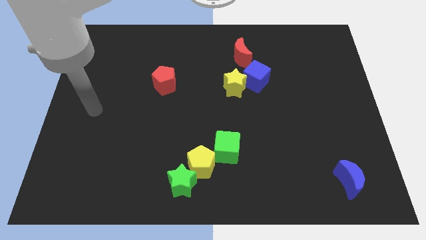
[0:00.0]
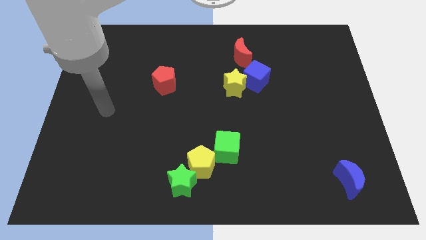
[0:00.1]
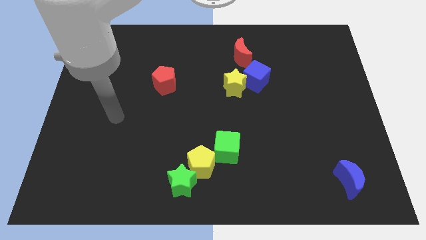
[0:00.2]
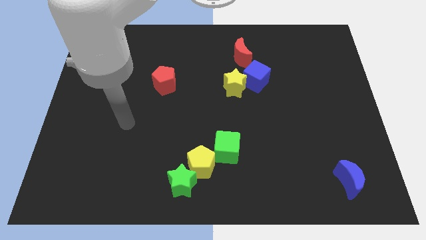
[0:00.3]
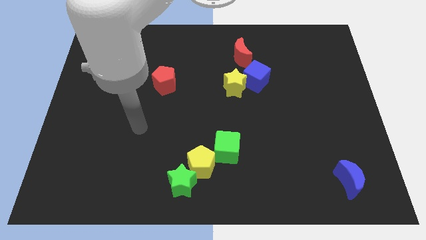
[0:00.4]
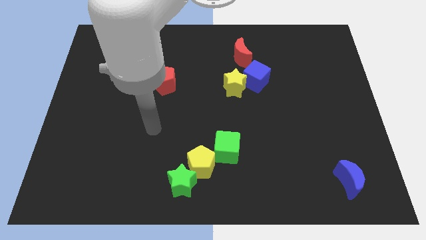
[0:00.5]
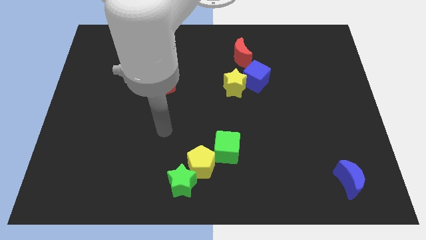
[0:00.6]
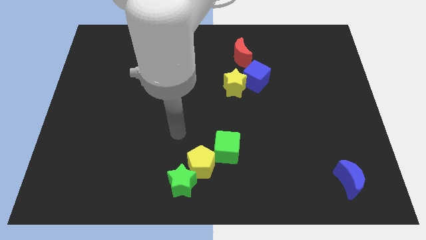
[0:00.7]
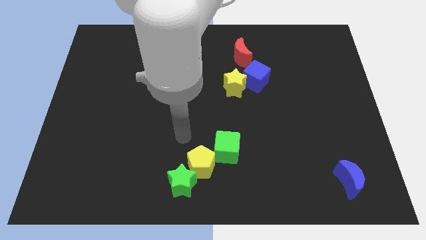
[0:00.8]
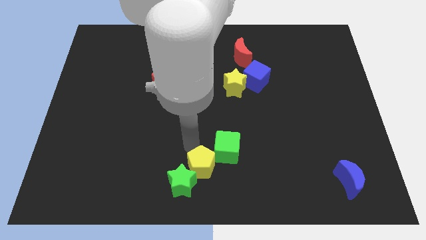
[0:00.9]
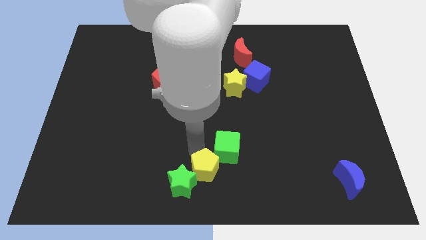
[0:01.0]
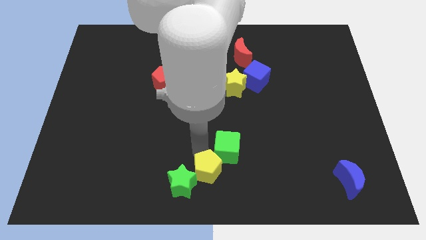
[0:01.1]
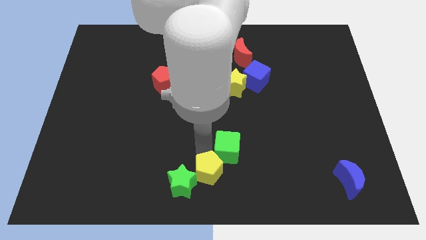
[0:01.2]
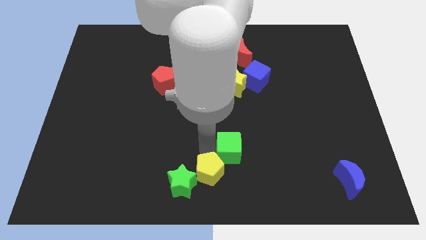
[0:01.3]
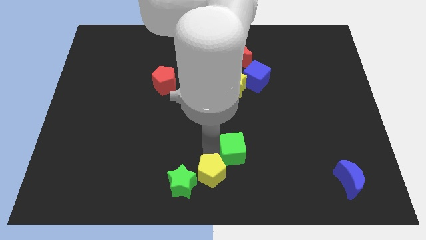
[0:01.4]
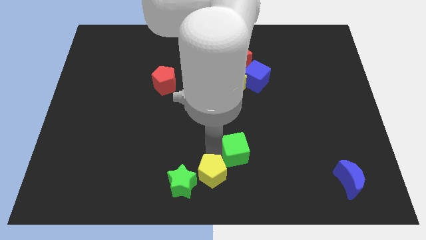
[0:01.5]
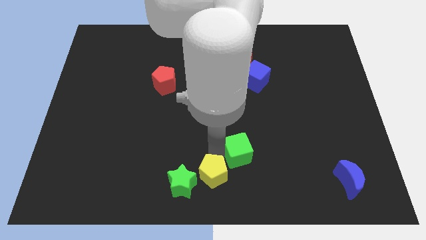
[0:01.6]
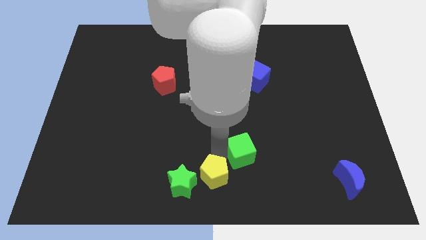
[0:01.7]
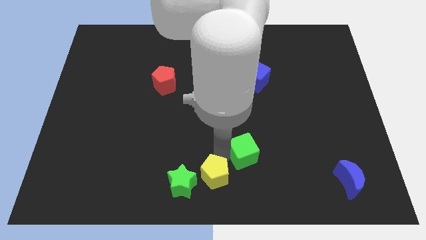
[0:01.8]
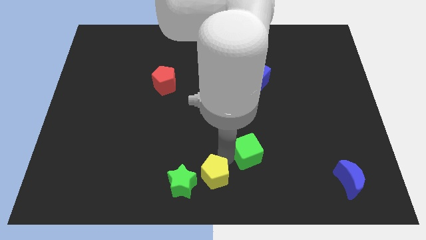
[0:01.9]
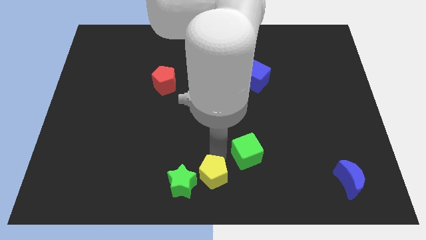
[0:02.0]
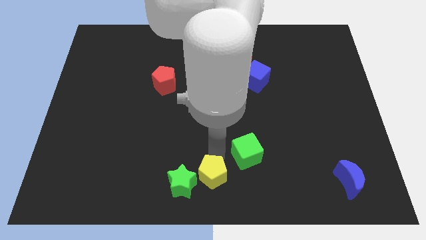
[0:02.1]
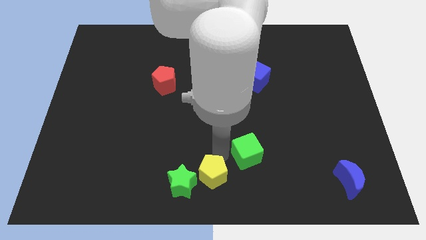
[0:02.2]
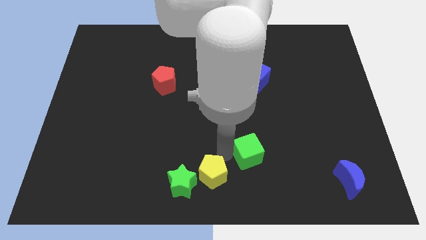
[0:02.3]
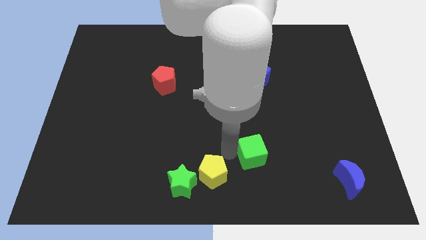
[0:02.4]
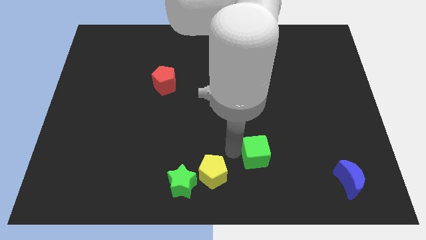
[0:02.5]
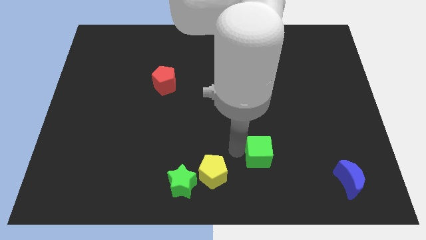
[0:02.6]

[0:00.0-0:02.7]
slightly slide the green cube to the right

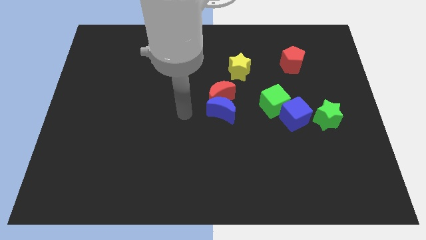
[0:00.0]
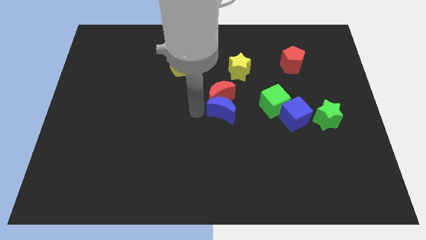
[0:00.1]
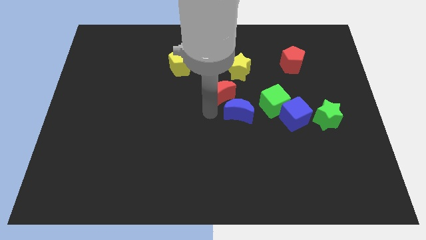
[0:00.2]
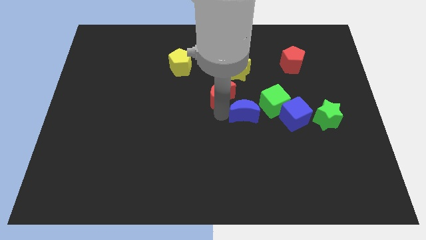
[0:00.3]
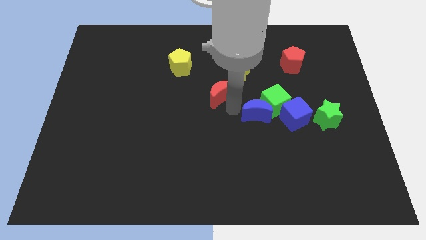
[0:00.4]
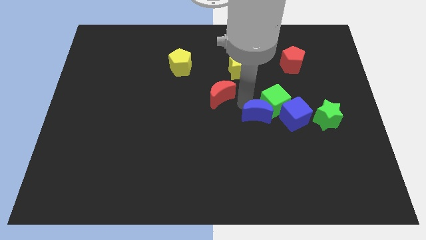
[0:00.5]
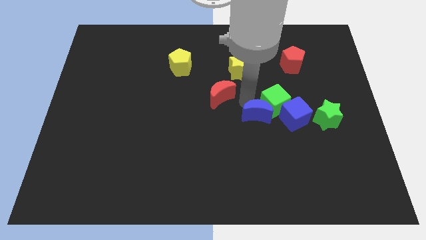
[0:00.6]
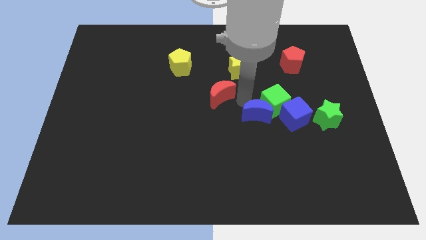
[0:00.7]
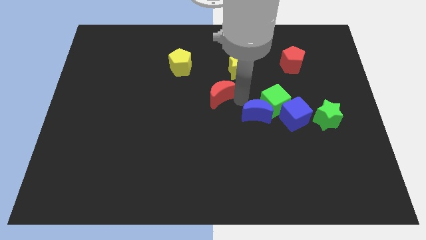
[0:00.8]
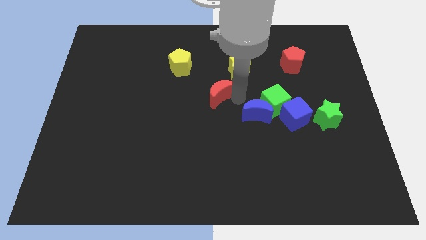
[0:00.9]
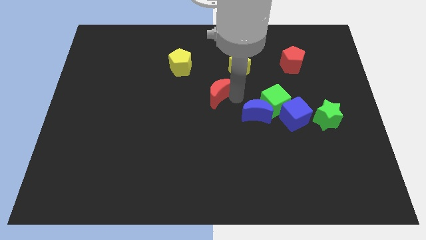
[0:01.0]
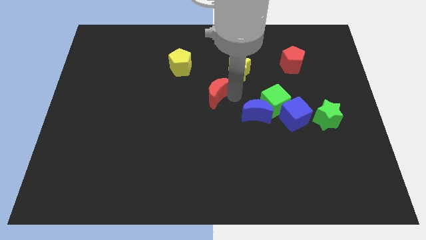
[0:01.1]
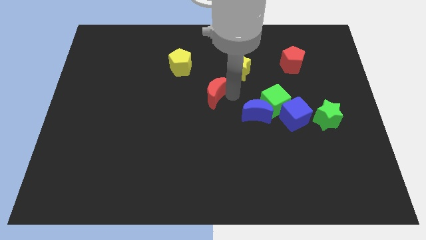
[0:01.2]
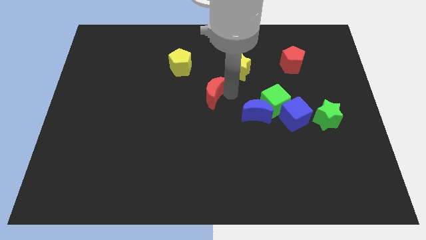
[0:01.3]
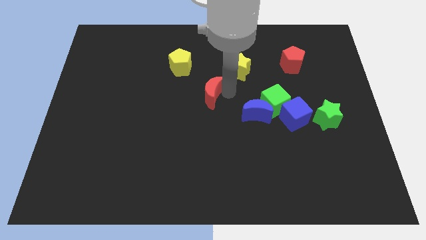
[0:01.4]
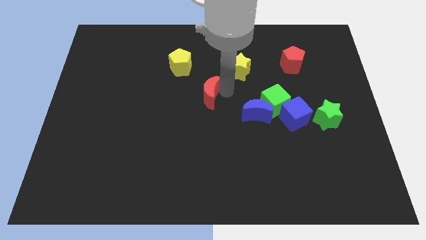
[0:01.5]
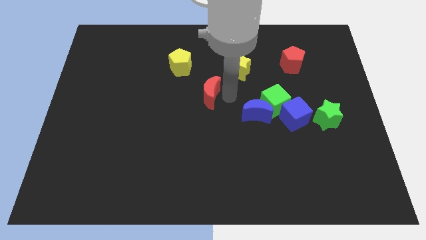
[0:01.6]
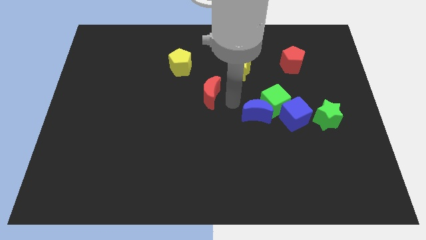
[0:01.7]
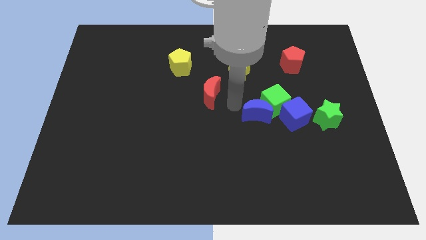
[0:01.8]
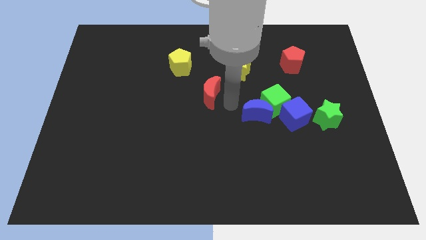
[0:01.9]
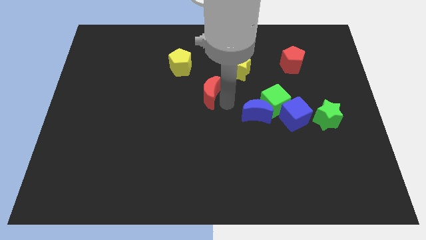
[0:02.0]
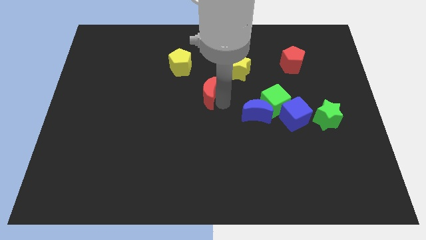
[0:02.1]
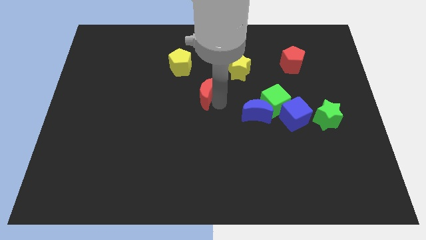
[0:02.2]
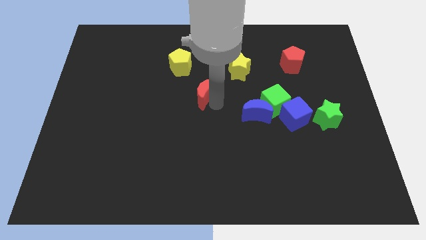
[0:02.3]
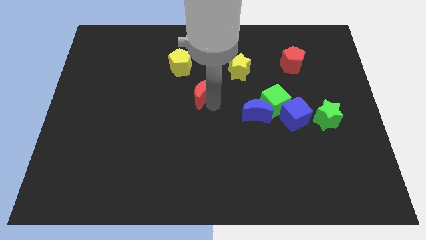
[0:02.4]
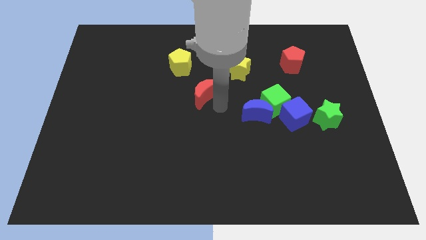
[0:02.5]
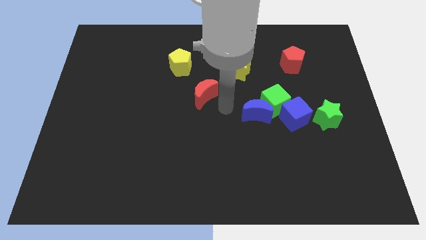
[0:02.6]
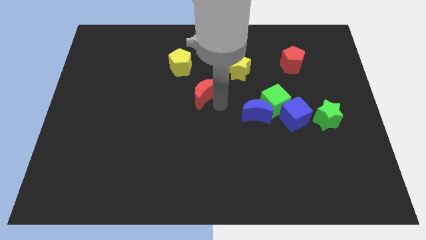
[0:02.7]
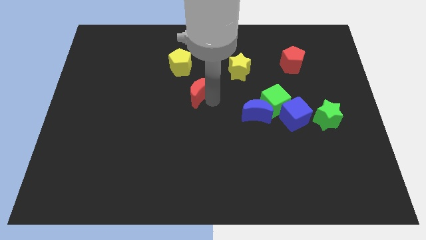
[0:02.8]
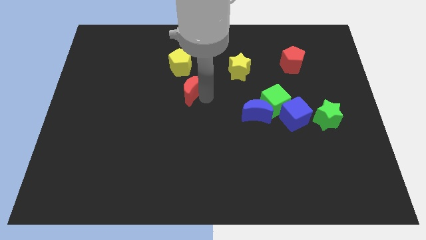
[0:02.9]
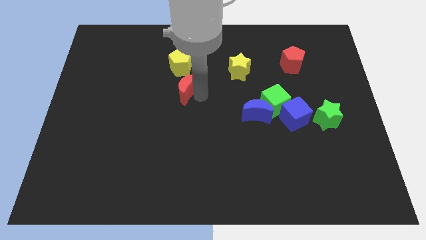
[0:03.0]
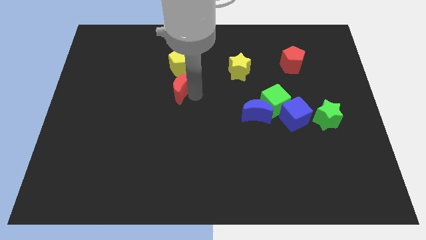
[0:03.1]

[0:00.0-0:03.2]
push the red moon upwards and then to the left a little

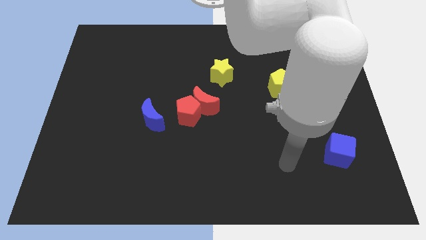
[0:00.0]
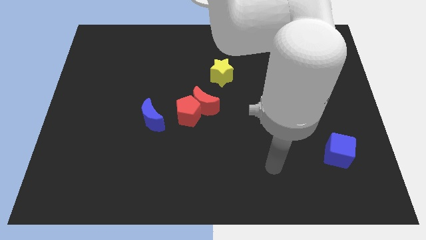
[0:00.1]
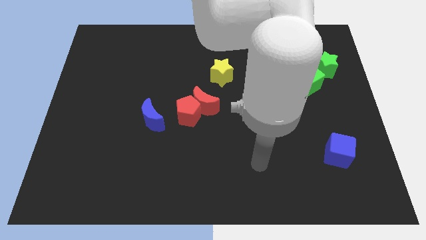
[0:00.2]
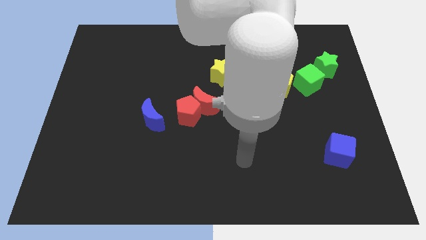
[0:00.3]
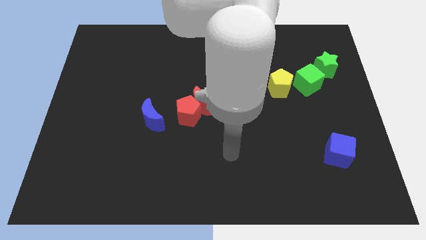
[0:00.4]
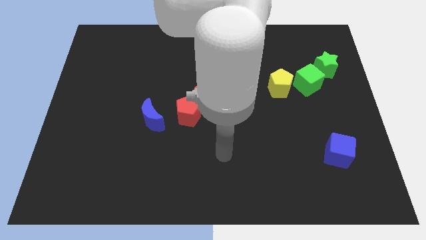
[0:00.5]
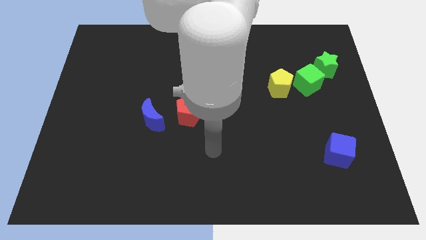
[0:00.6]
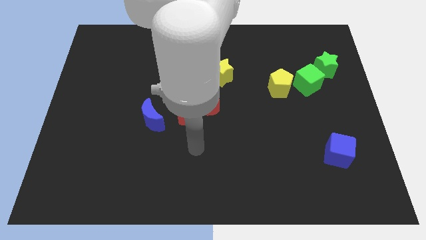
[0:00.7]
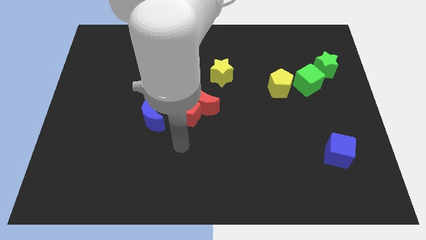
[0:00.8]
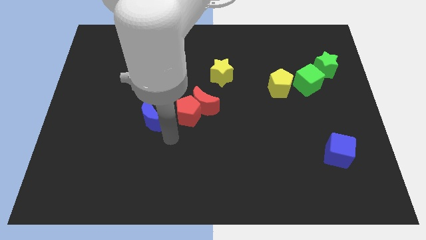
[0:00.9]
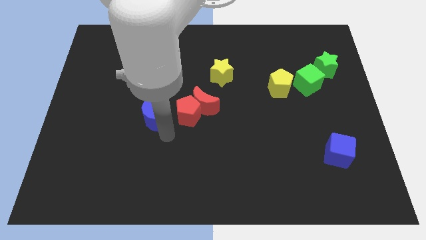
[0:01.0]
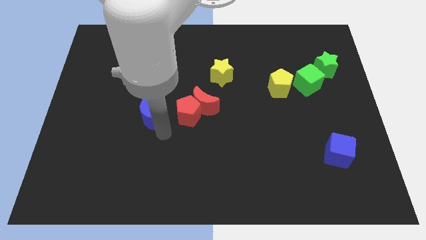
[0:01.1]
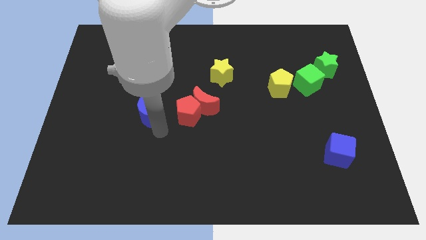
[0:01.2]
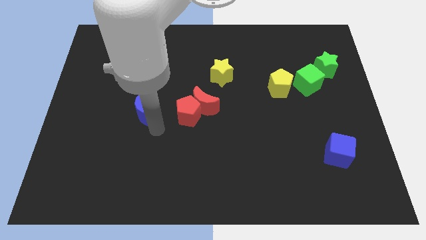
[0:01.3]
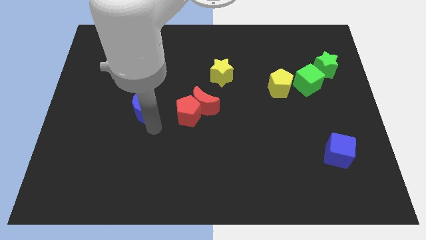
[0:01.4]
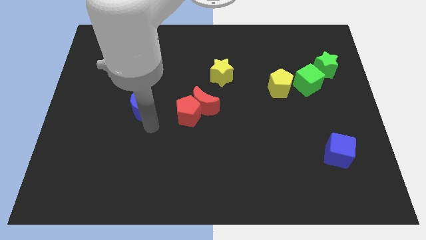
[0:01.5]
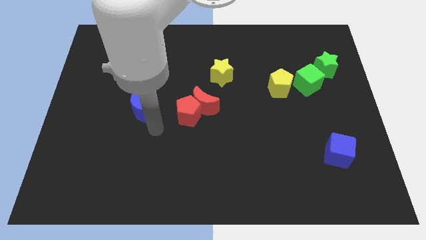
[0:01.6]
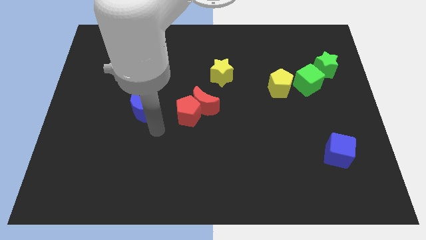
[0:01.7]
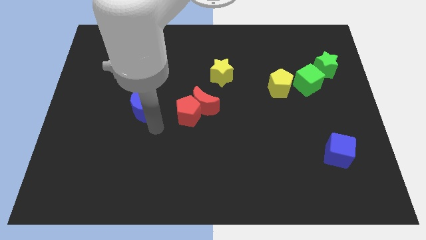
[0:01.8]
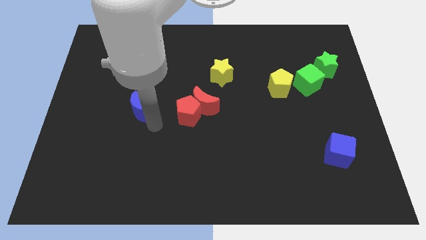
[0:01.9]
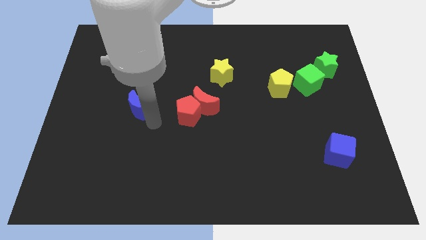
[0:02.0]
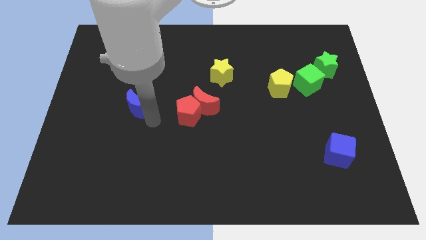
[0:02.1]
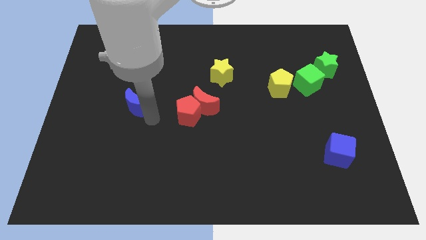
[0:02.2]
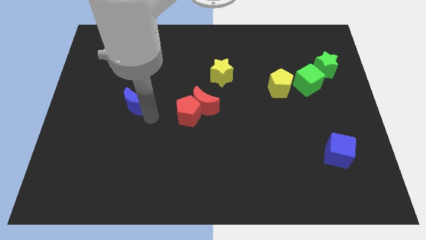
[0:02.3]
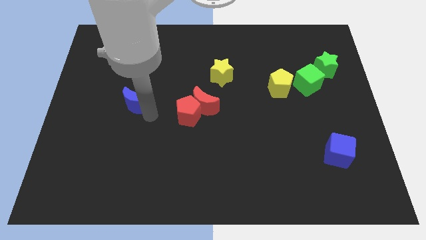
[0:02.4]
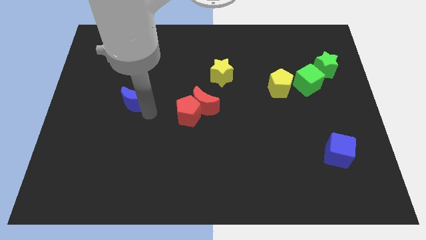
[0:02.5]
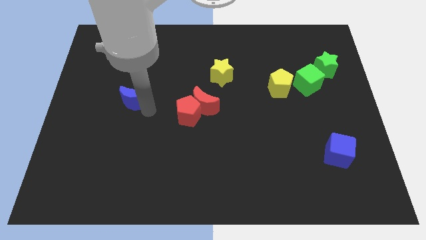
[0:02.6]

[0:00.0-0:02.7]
slightly slide the blue moon diagonally up and to the left
